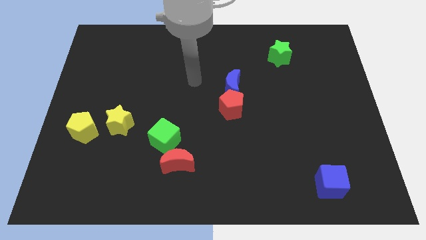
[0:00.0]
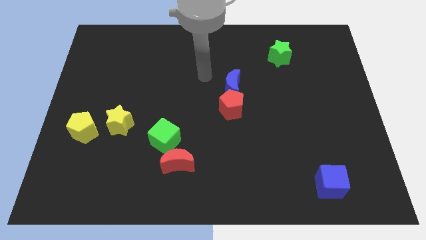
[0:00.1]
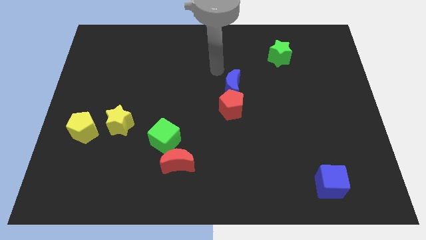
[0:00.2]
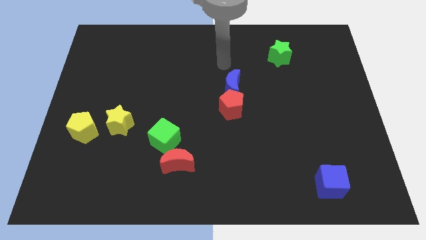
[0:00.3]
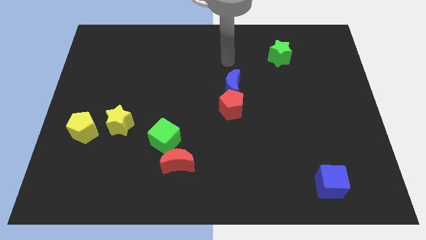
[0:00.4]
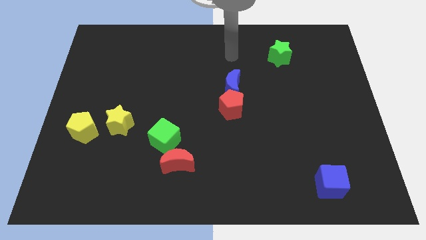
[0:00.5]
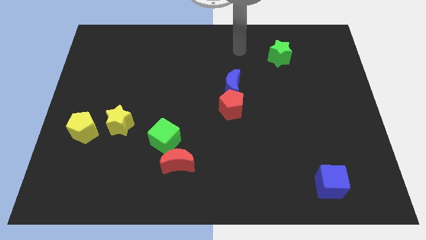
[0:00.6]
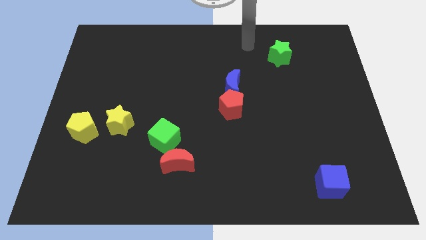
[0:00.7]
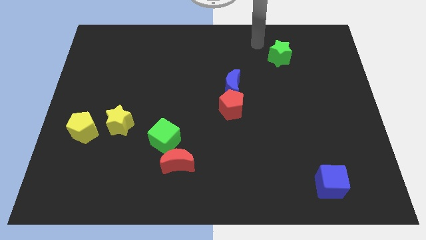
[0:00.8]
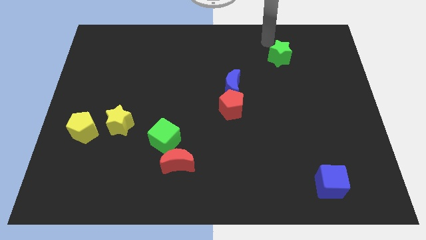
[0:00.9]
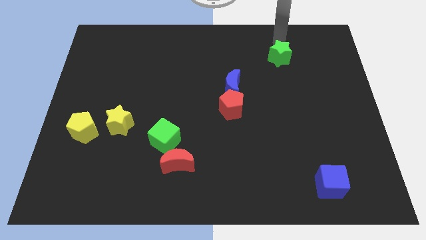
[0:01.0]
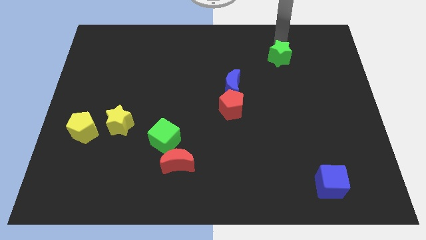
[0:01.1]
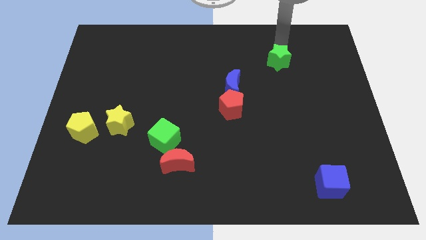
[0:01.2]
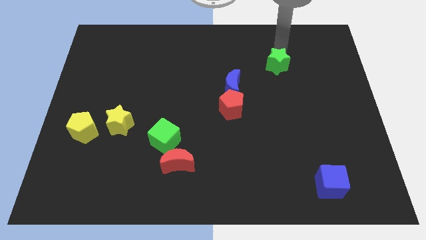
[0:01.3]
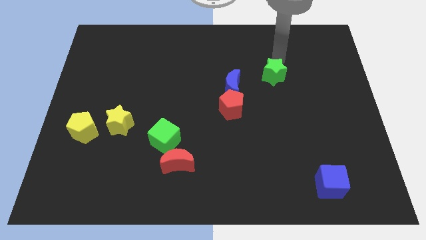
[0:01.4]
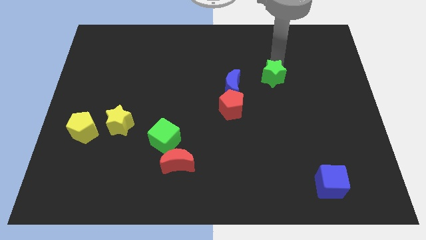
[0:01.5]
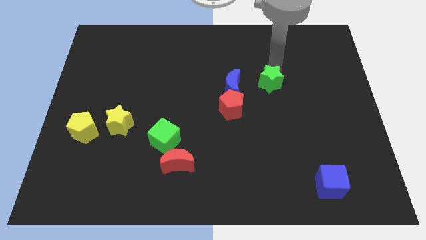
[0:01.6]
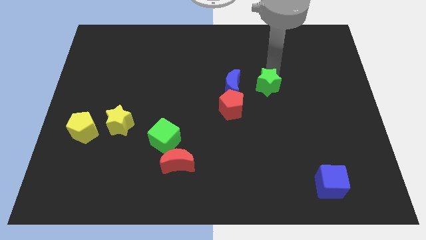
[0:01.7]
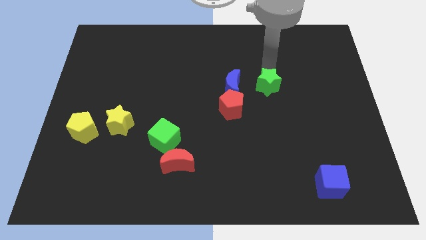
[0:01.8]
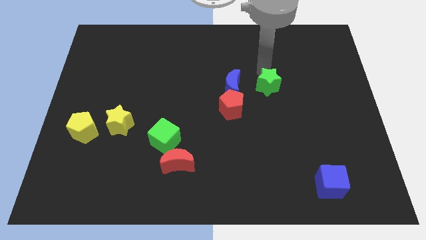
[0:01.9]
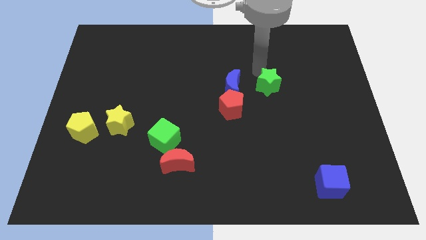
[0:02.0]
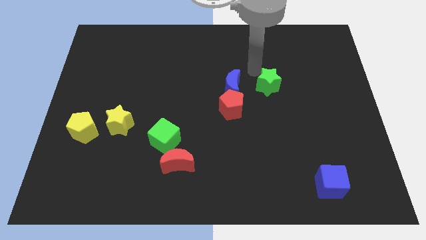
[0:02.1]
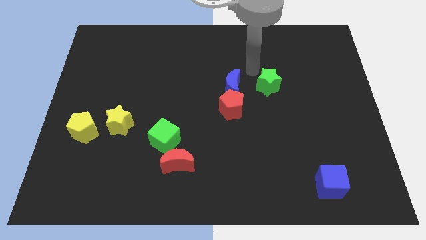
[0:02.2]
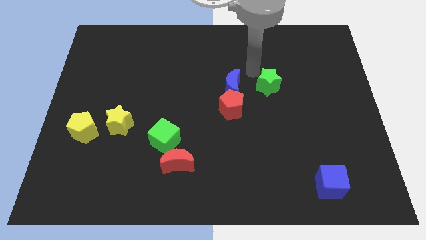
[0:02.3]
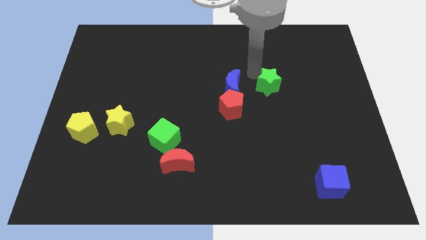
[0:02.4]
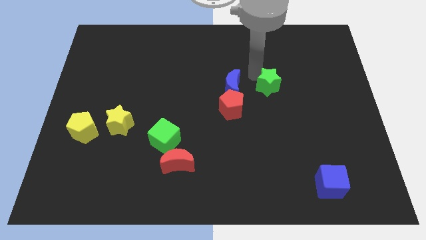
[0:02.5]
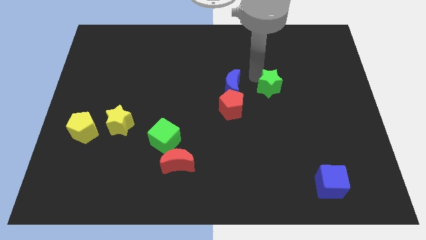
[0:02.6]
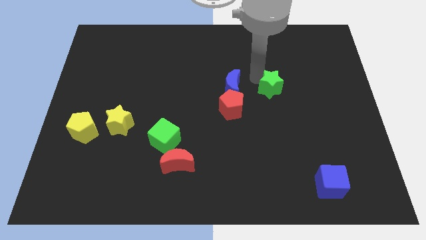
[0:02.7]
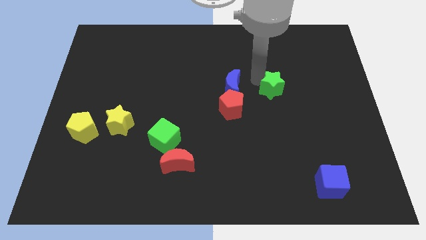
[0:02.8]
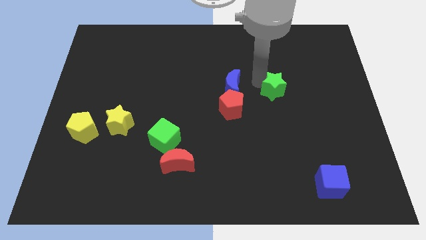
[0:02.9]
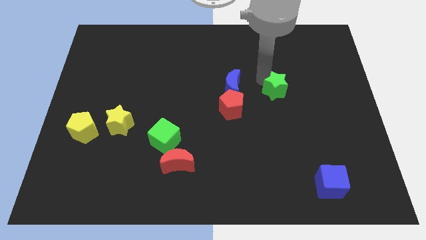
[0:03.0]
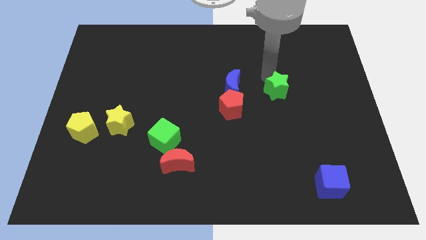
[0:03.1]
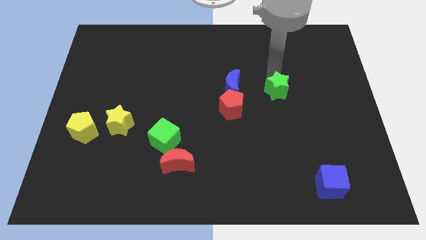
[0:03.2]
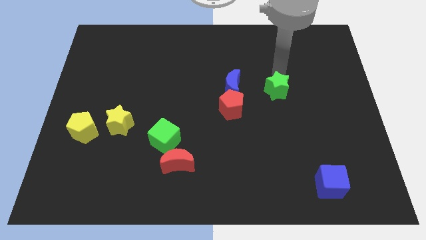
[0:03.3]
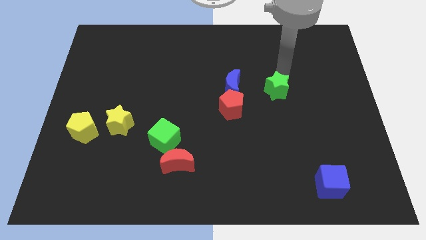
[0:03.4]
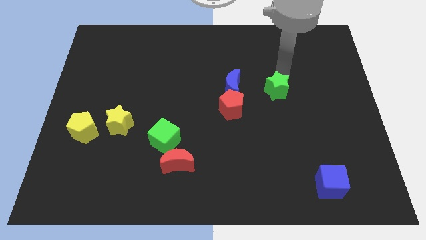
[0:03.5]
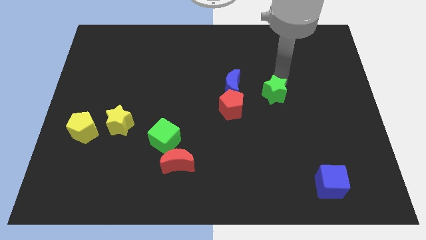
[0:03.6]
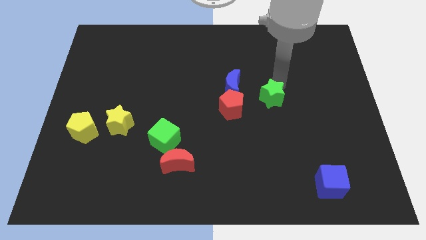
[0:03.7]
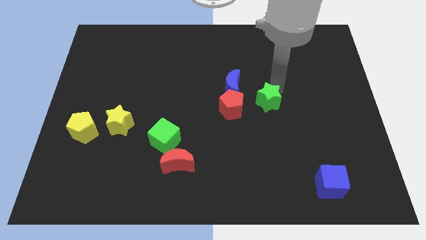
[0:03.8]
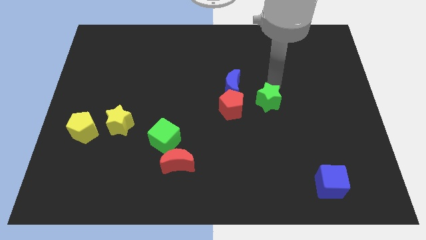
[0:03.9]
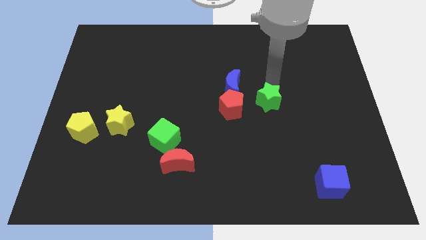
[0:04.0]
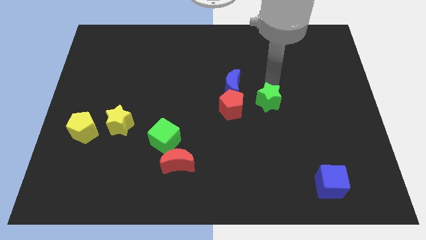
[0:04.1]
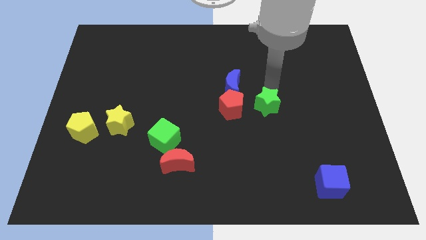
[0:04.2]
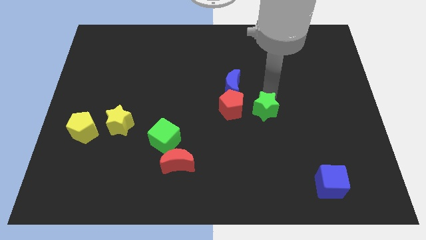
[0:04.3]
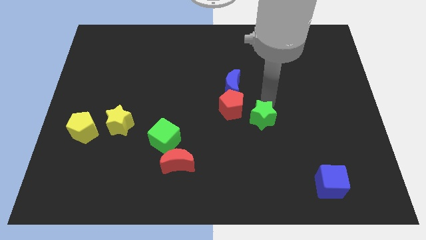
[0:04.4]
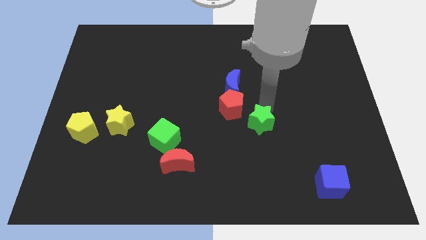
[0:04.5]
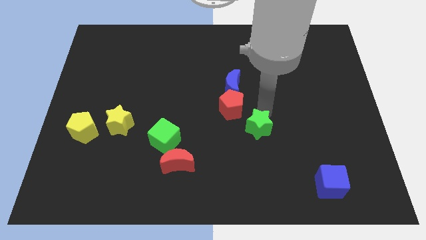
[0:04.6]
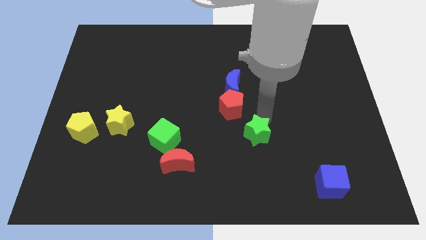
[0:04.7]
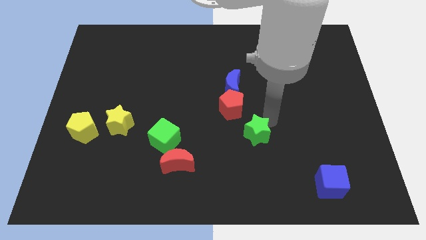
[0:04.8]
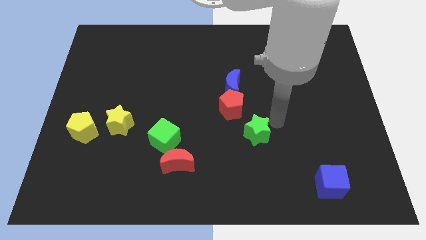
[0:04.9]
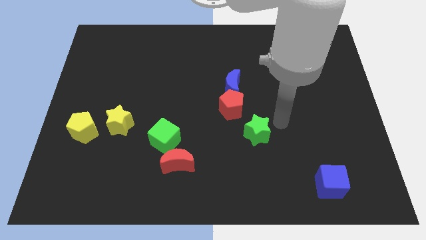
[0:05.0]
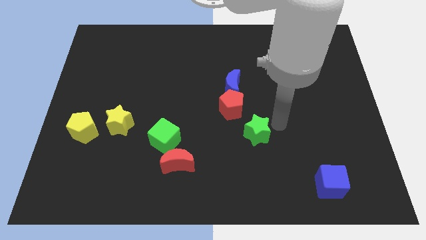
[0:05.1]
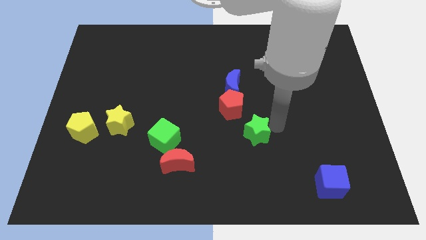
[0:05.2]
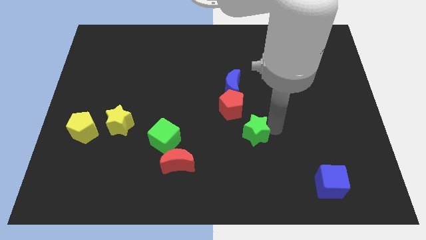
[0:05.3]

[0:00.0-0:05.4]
move the green star to the bottom side of the red pentagon

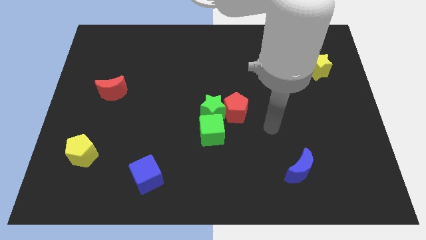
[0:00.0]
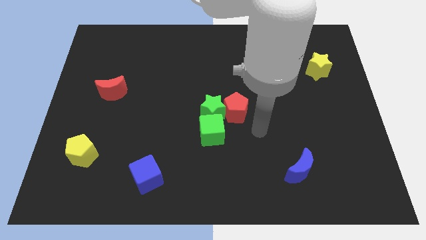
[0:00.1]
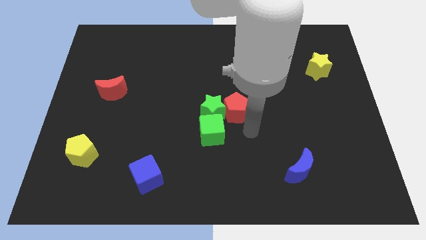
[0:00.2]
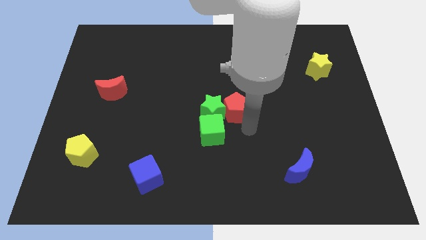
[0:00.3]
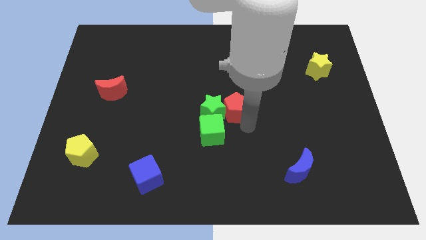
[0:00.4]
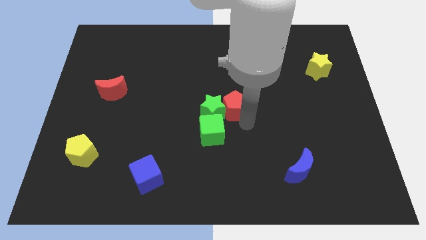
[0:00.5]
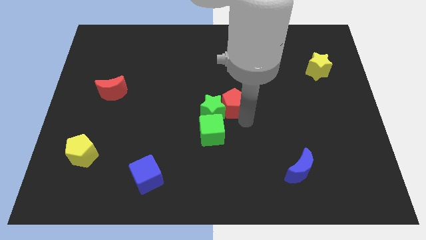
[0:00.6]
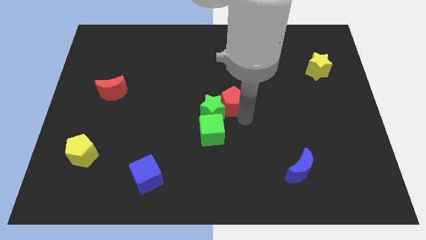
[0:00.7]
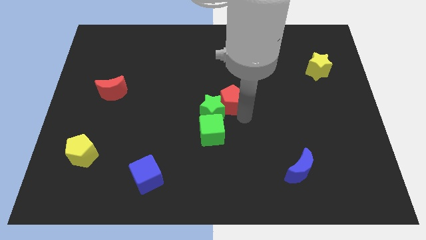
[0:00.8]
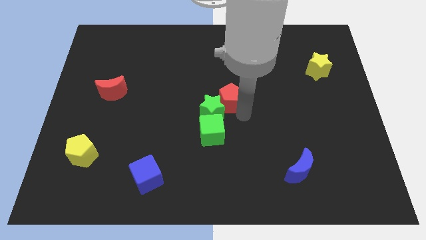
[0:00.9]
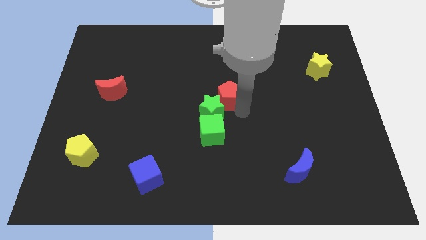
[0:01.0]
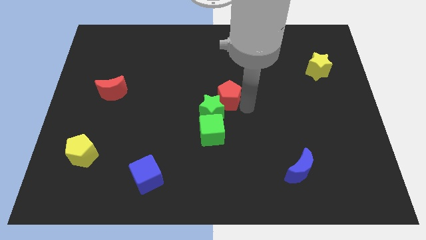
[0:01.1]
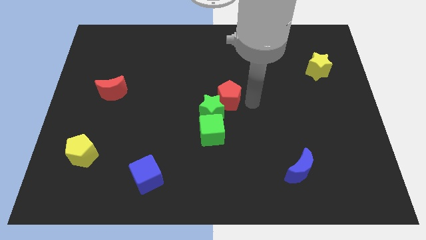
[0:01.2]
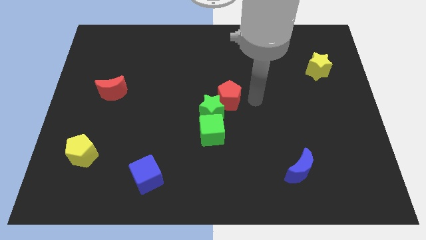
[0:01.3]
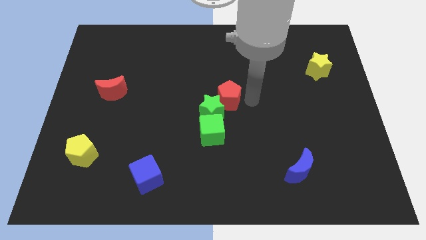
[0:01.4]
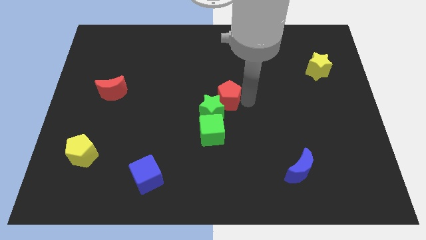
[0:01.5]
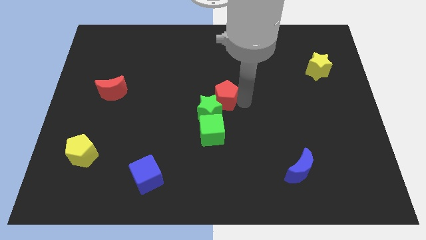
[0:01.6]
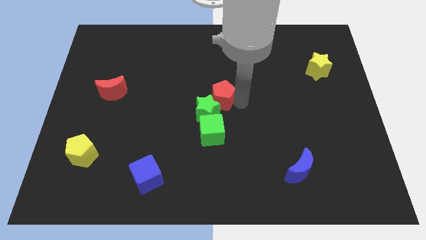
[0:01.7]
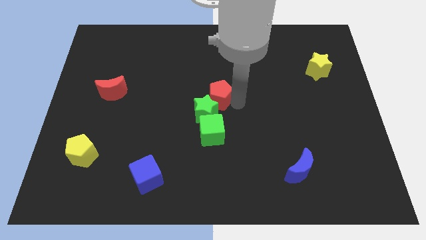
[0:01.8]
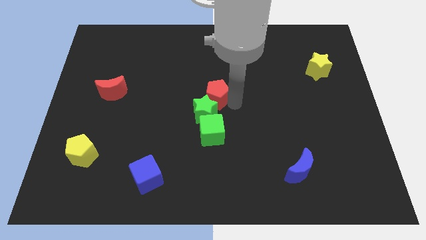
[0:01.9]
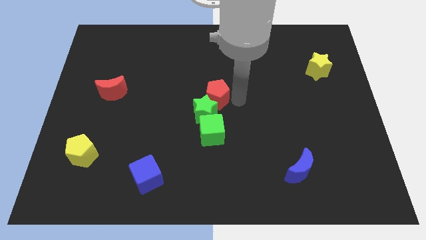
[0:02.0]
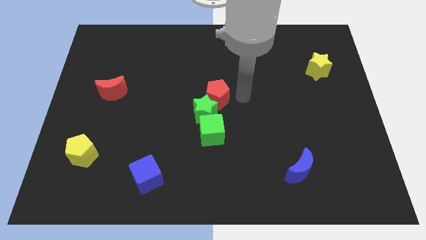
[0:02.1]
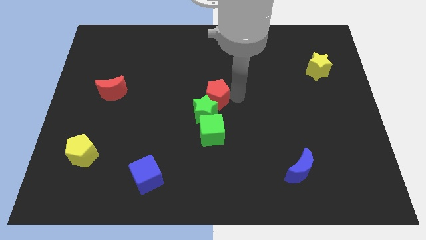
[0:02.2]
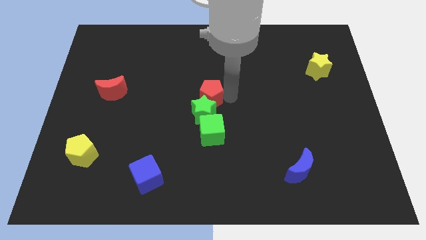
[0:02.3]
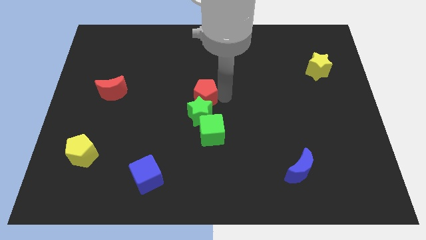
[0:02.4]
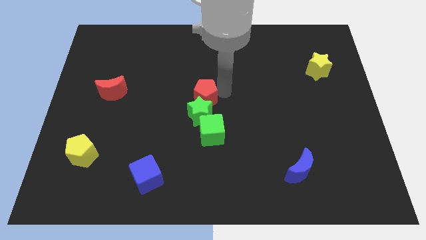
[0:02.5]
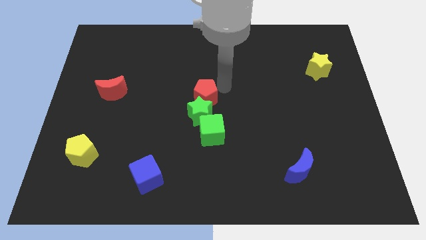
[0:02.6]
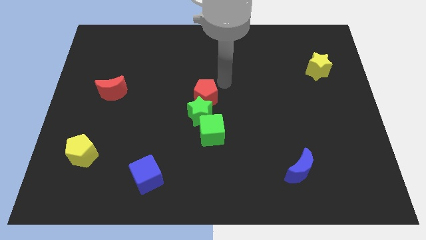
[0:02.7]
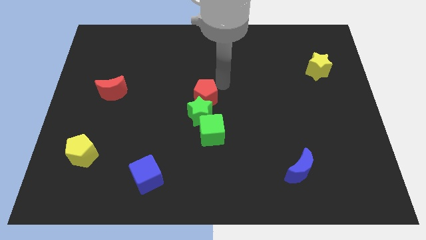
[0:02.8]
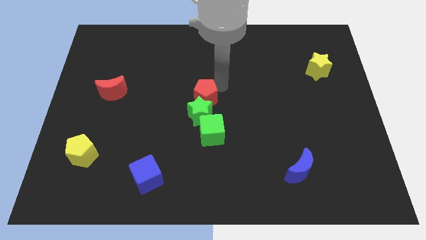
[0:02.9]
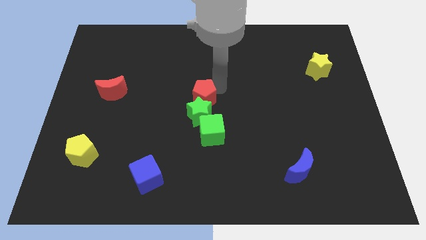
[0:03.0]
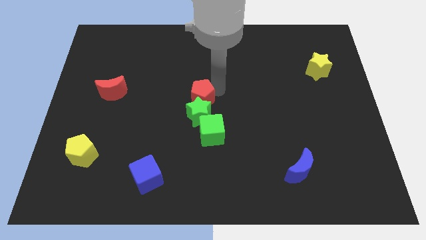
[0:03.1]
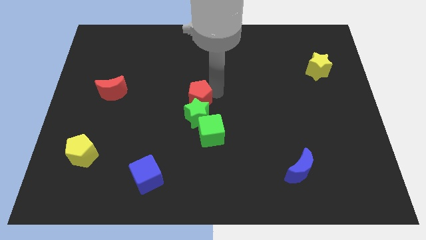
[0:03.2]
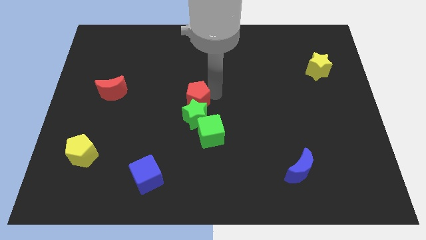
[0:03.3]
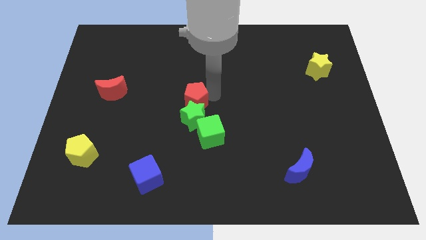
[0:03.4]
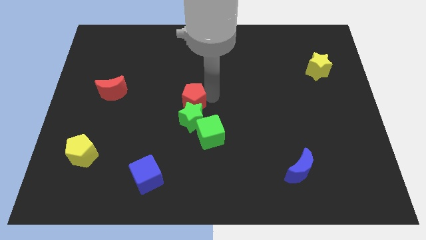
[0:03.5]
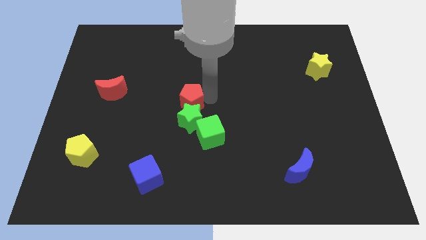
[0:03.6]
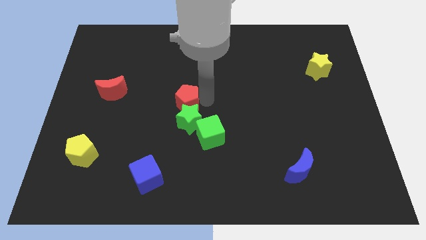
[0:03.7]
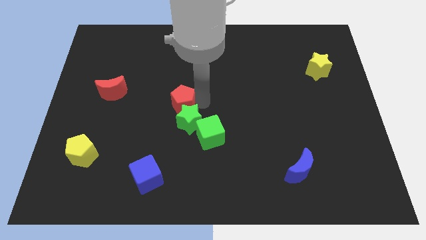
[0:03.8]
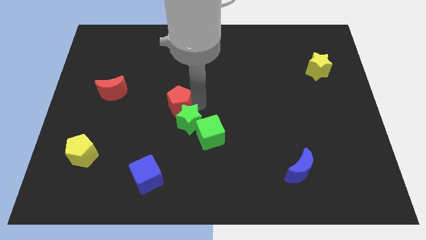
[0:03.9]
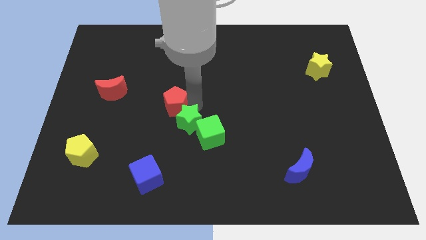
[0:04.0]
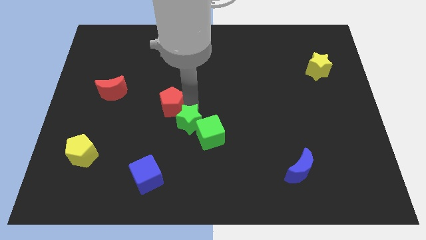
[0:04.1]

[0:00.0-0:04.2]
slide the red pentagon just left of the green star
